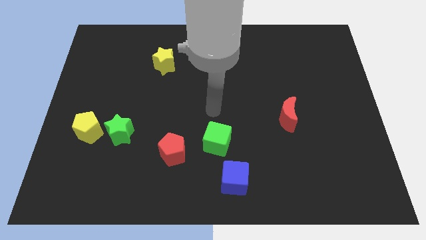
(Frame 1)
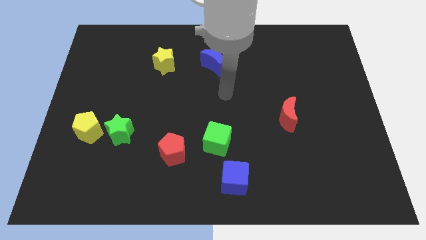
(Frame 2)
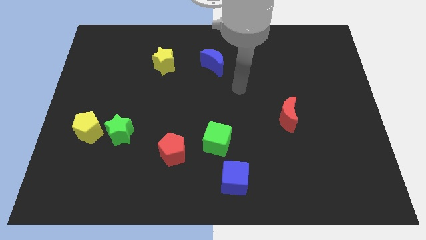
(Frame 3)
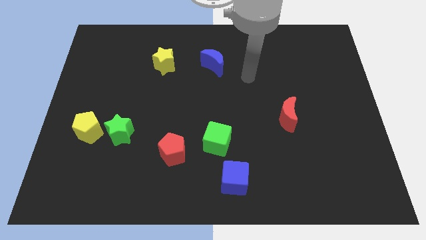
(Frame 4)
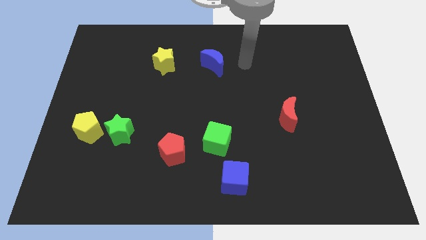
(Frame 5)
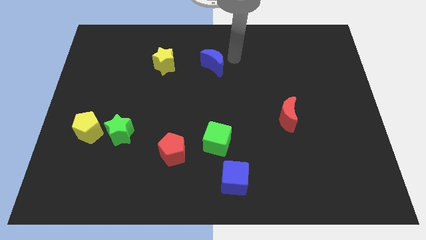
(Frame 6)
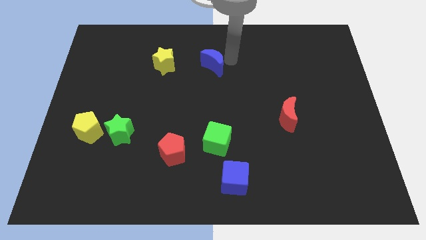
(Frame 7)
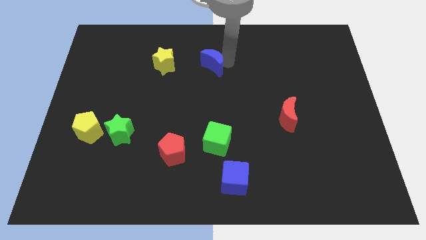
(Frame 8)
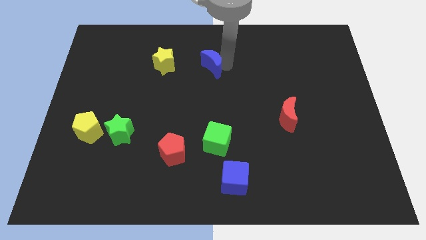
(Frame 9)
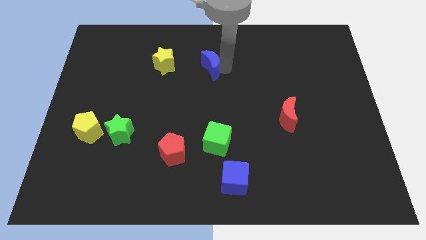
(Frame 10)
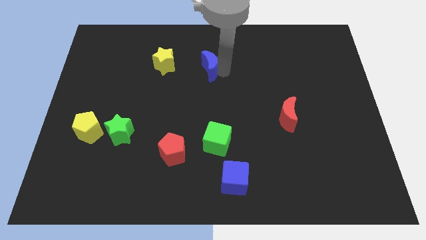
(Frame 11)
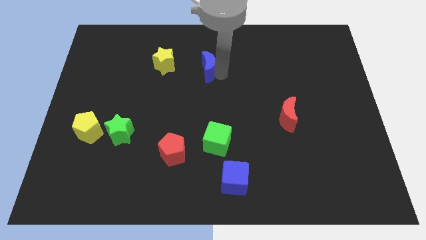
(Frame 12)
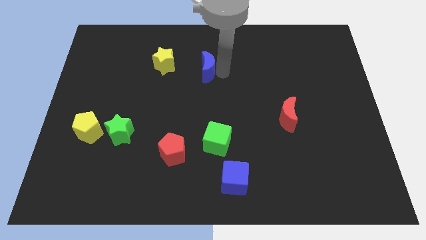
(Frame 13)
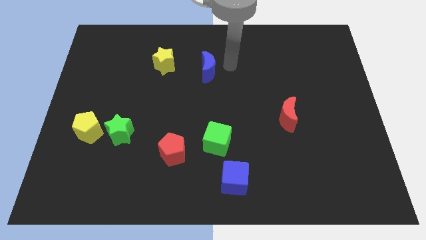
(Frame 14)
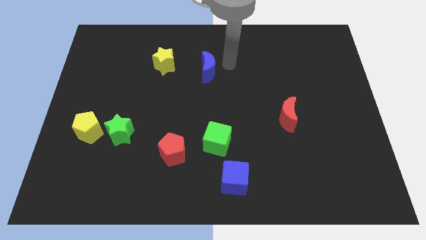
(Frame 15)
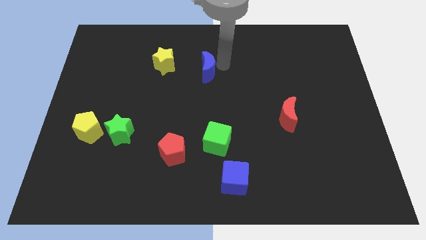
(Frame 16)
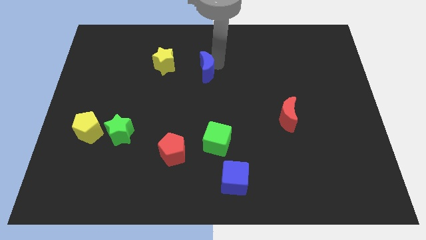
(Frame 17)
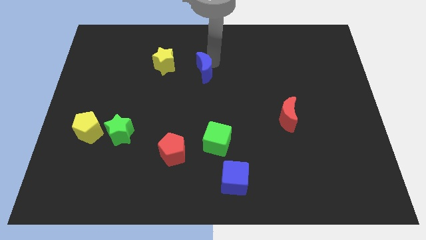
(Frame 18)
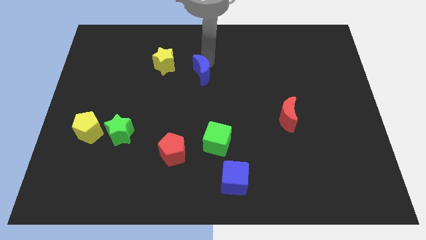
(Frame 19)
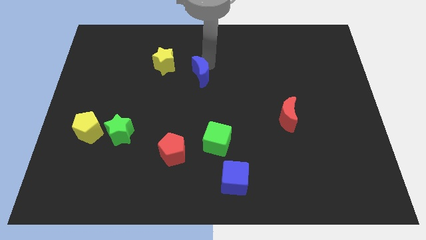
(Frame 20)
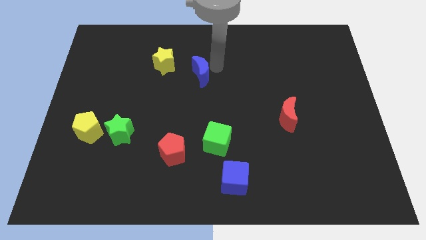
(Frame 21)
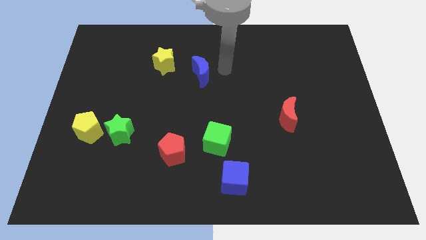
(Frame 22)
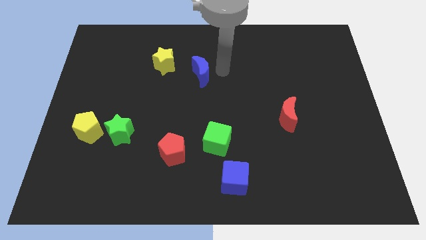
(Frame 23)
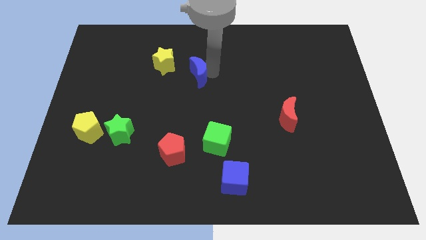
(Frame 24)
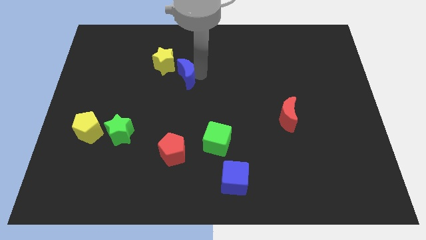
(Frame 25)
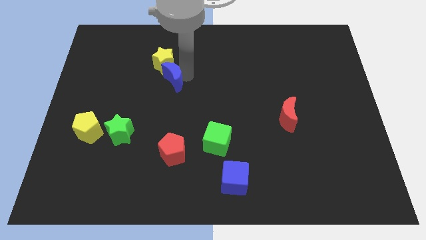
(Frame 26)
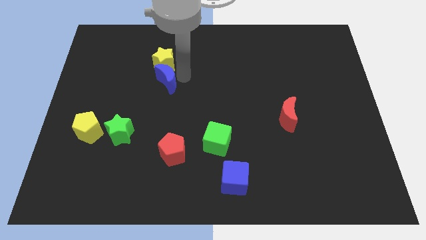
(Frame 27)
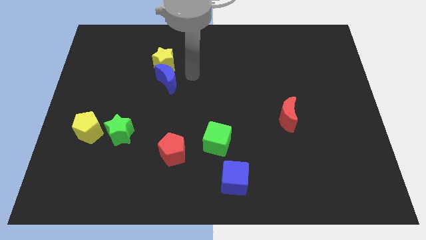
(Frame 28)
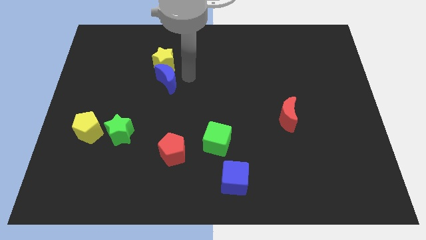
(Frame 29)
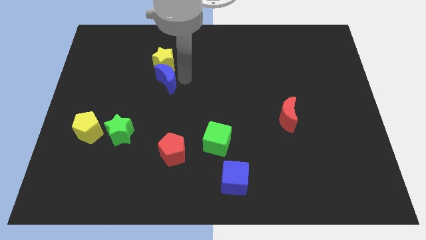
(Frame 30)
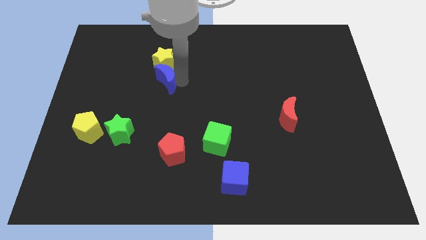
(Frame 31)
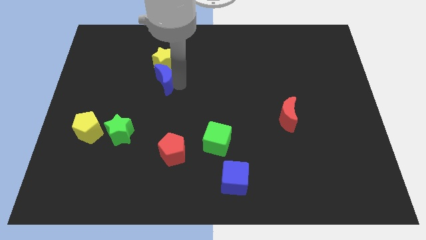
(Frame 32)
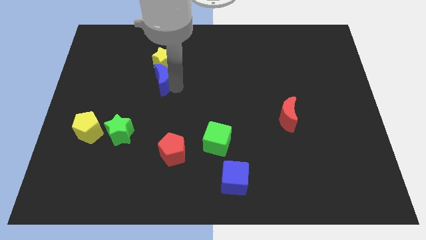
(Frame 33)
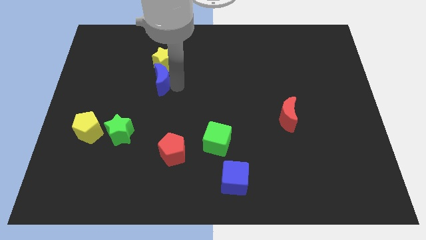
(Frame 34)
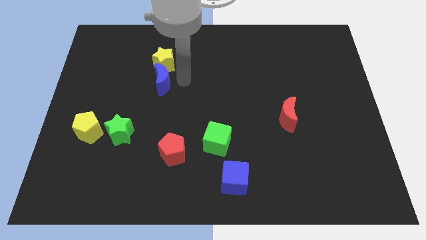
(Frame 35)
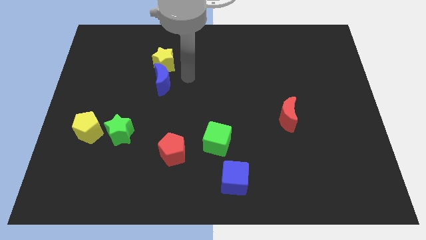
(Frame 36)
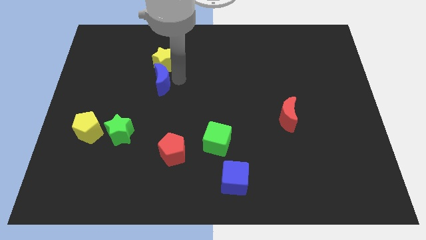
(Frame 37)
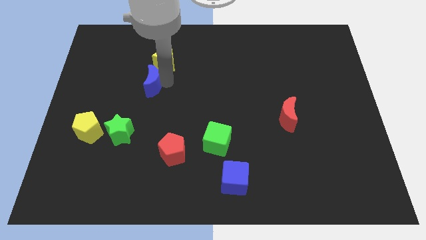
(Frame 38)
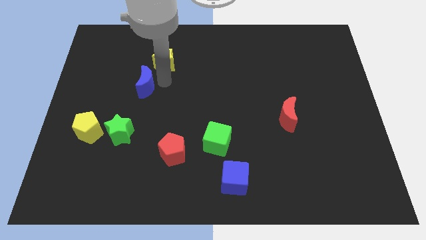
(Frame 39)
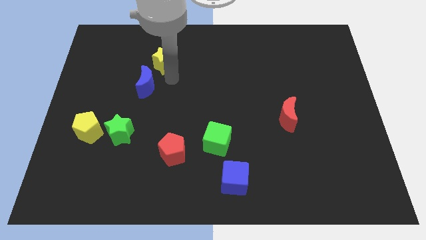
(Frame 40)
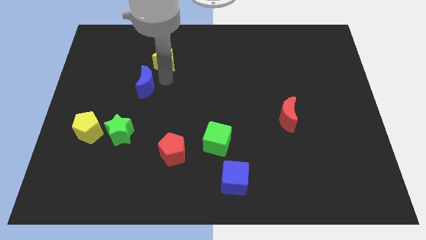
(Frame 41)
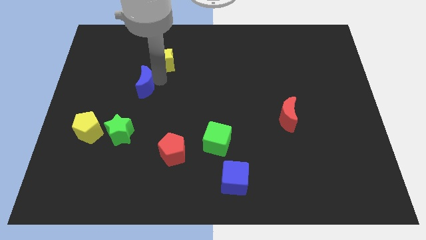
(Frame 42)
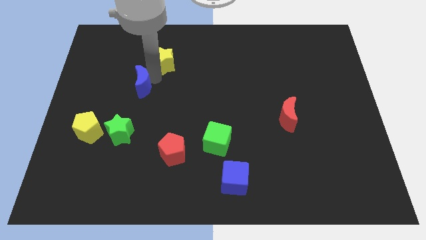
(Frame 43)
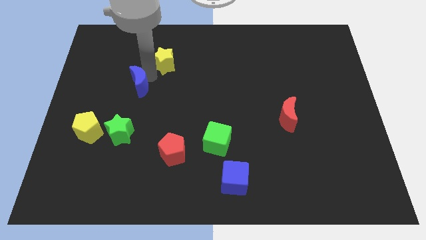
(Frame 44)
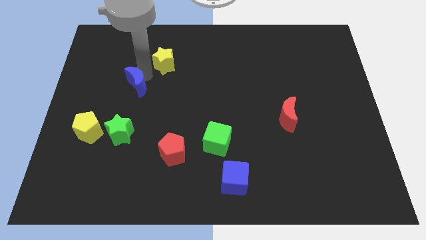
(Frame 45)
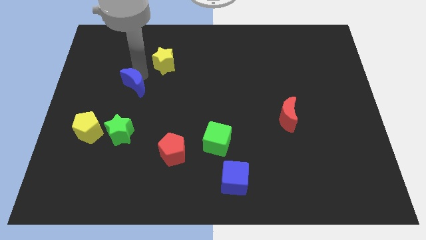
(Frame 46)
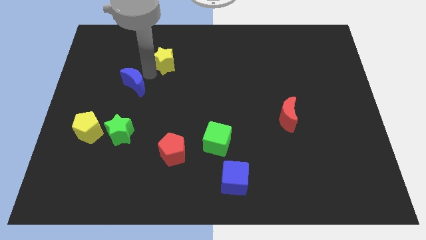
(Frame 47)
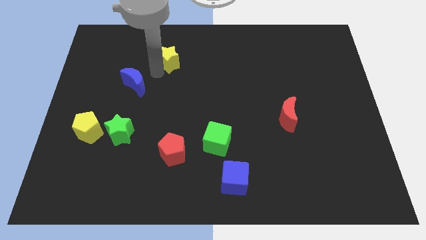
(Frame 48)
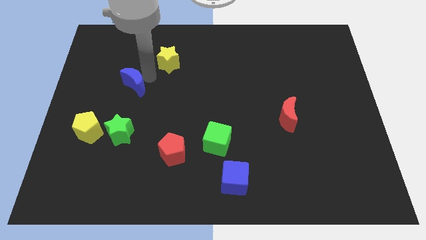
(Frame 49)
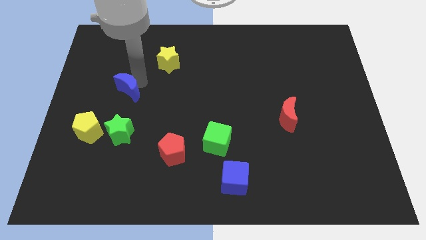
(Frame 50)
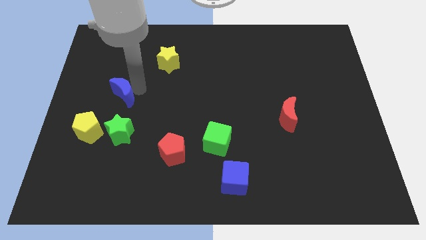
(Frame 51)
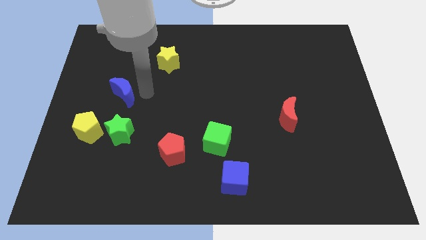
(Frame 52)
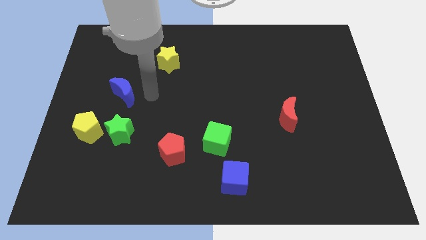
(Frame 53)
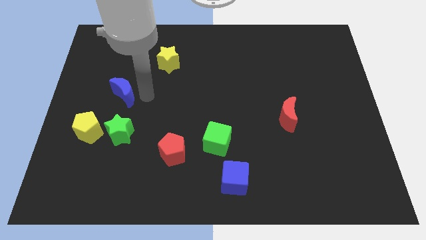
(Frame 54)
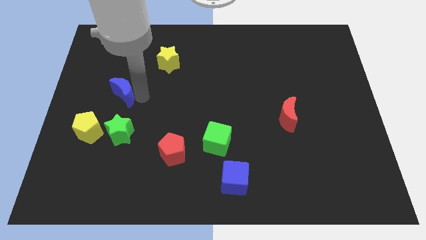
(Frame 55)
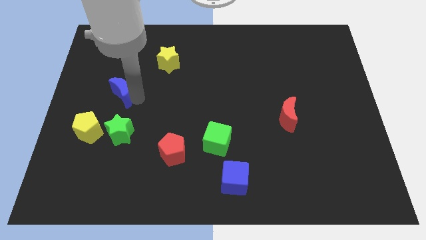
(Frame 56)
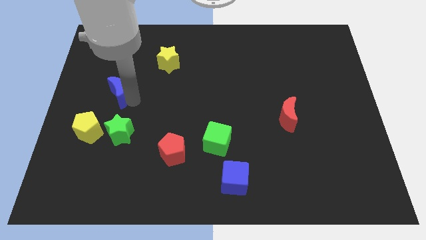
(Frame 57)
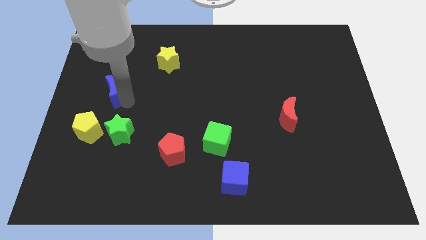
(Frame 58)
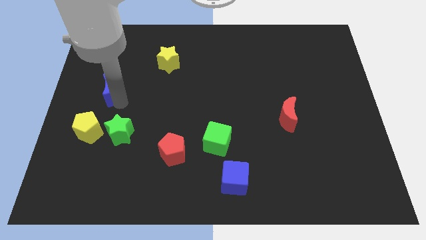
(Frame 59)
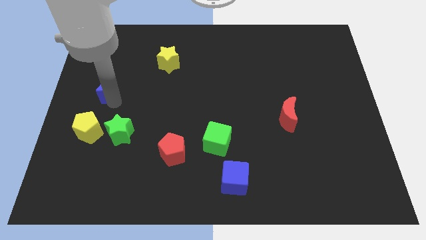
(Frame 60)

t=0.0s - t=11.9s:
push the blue moon to the left side
